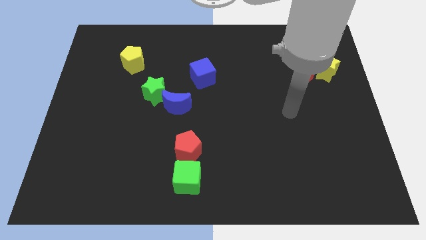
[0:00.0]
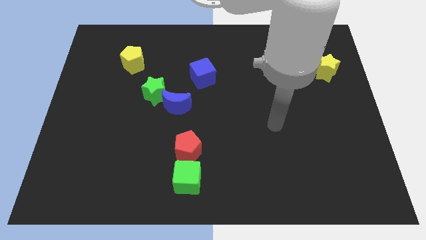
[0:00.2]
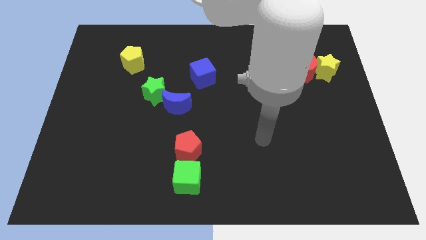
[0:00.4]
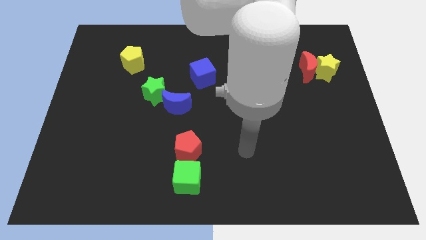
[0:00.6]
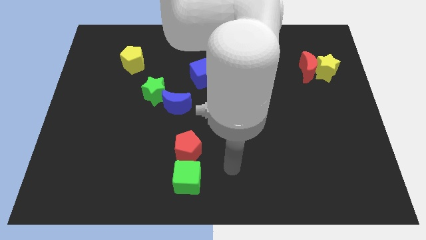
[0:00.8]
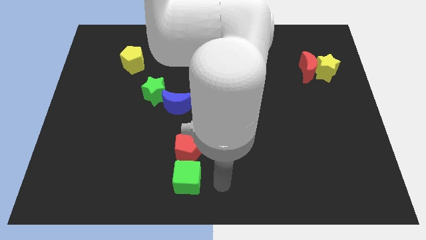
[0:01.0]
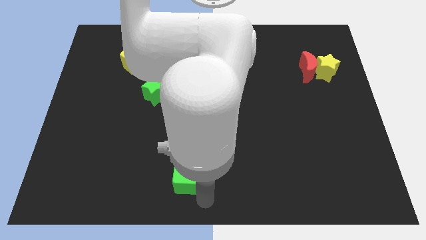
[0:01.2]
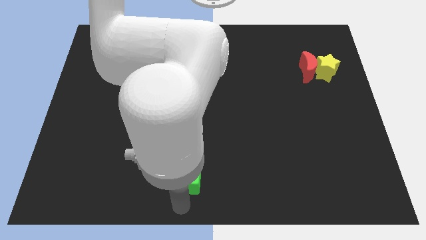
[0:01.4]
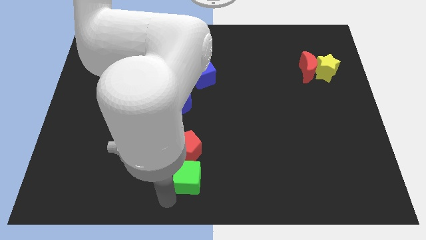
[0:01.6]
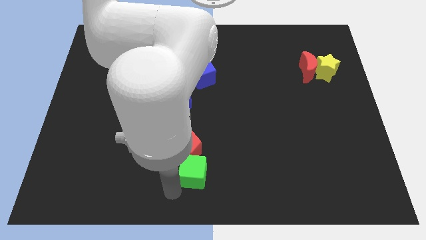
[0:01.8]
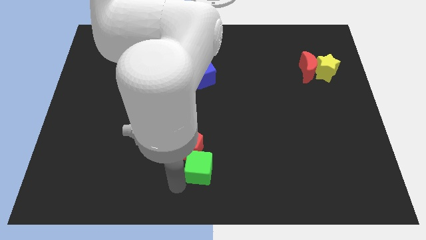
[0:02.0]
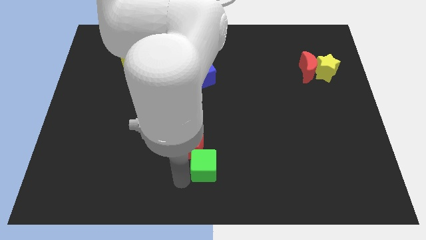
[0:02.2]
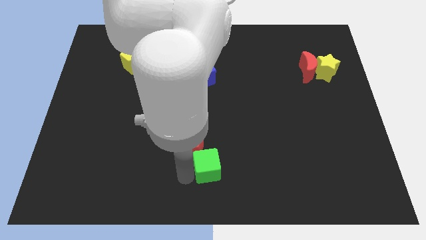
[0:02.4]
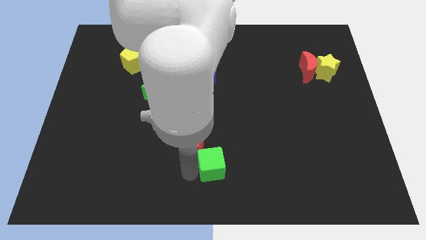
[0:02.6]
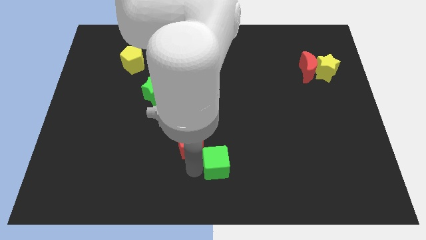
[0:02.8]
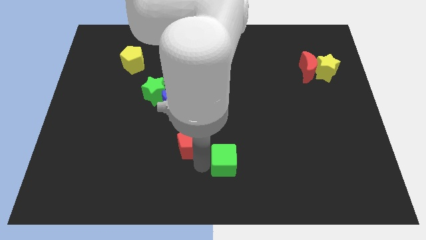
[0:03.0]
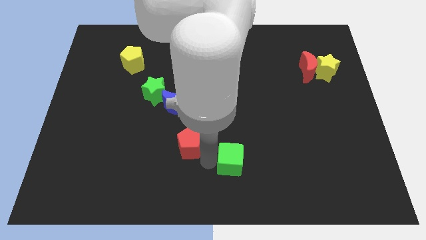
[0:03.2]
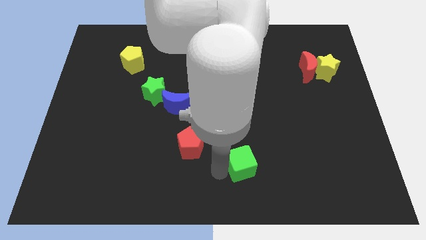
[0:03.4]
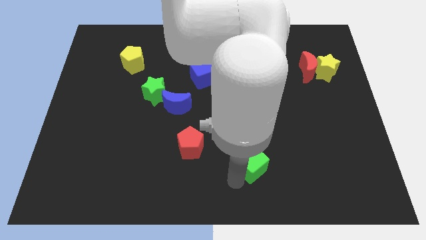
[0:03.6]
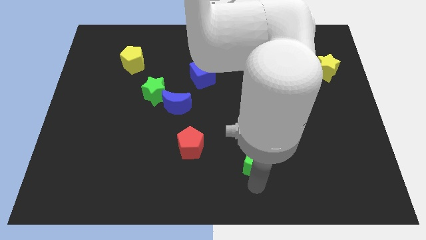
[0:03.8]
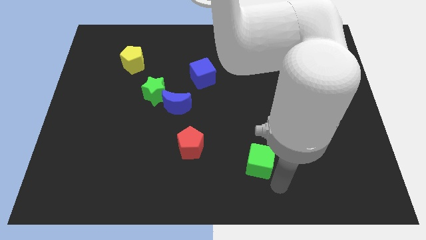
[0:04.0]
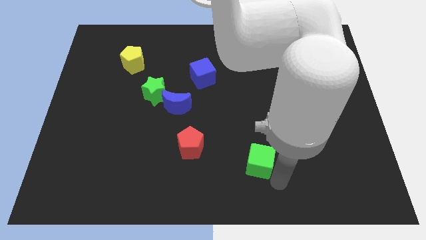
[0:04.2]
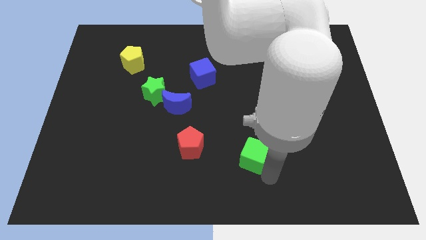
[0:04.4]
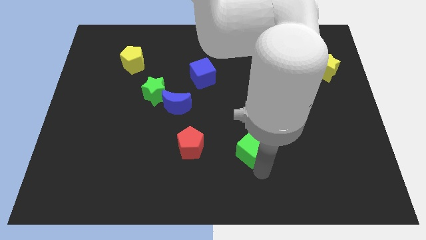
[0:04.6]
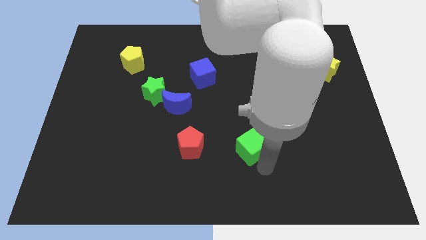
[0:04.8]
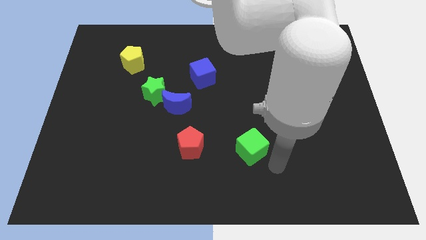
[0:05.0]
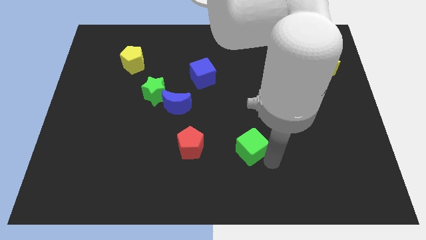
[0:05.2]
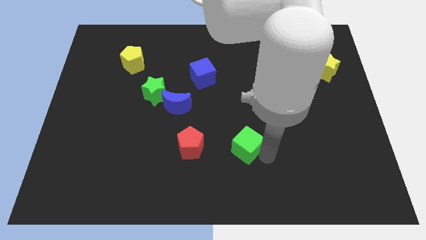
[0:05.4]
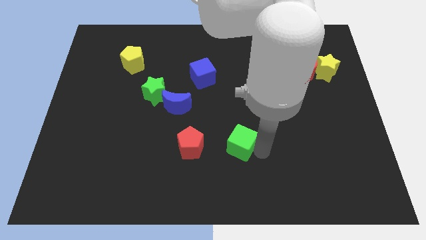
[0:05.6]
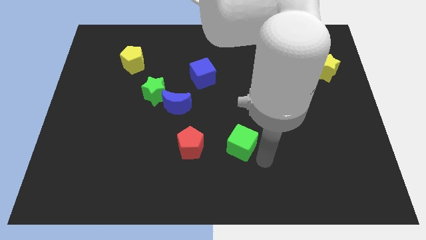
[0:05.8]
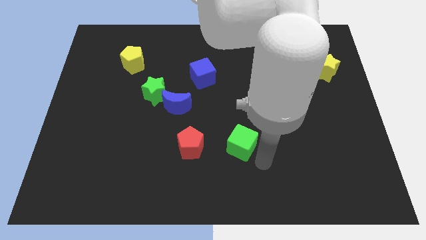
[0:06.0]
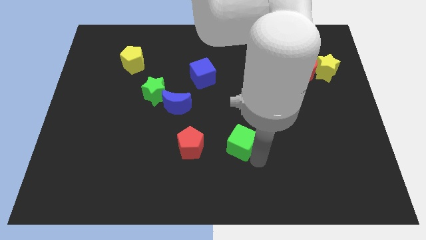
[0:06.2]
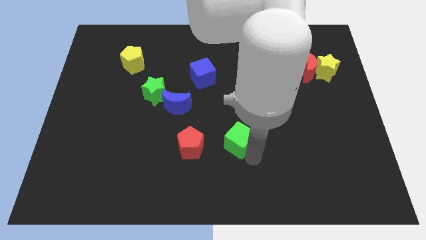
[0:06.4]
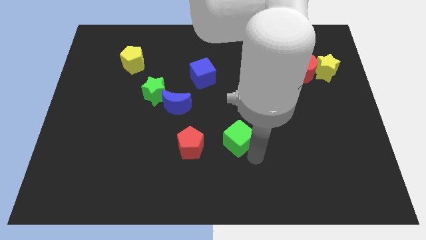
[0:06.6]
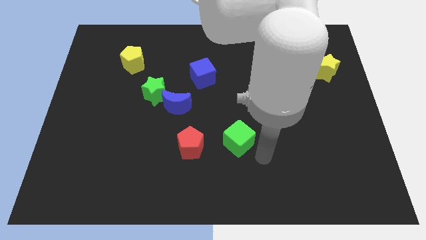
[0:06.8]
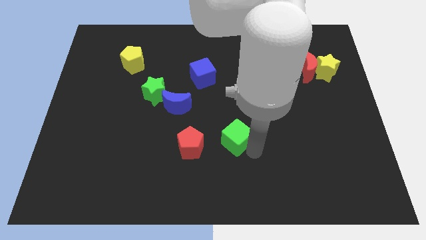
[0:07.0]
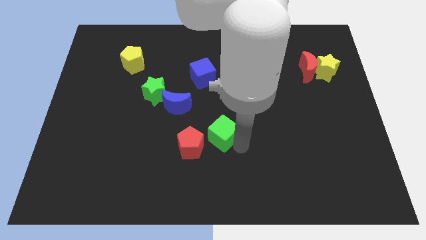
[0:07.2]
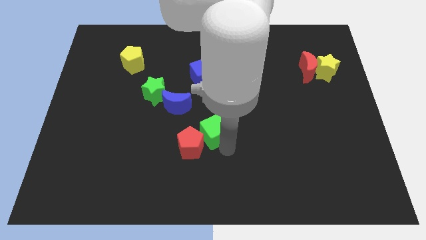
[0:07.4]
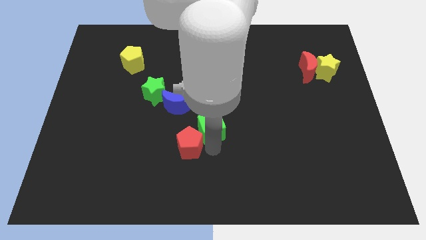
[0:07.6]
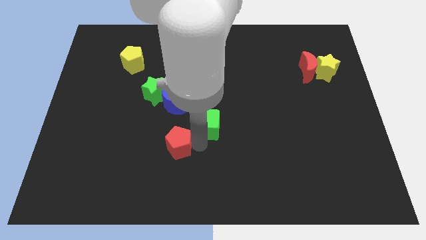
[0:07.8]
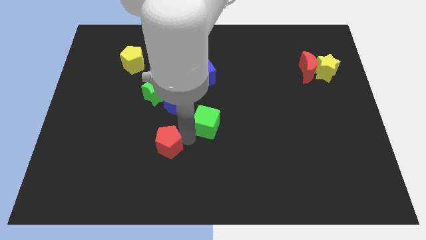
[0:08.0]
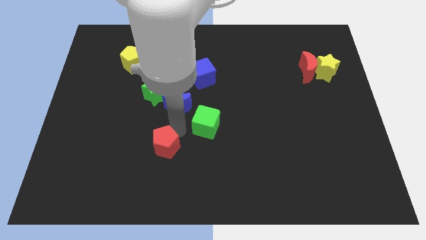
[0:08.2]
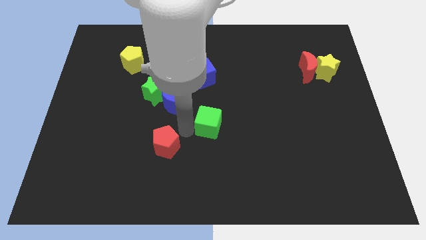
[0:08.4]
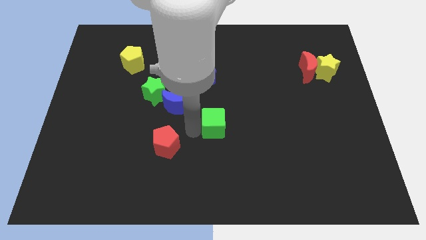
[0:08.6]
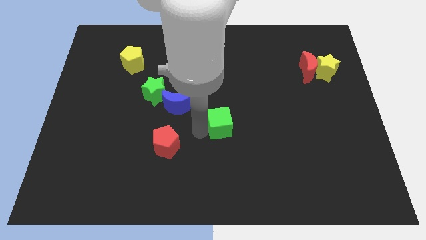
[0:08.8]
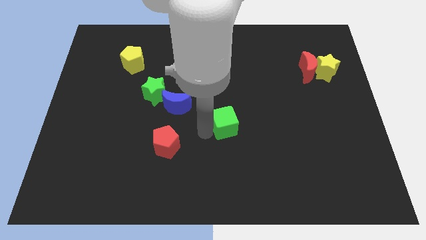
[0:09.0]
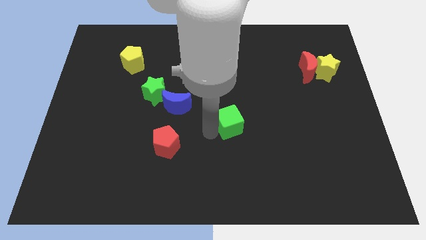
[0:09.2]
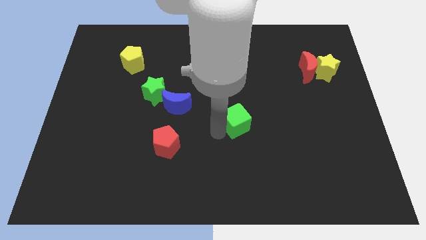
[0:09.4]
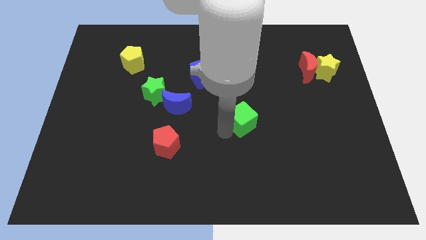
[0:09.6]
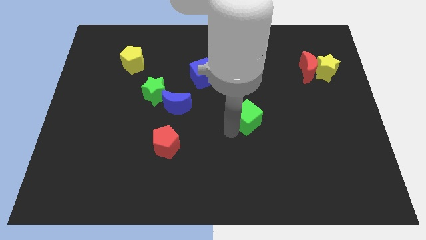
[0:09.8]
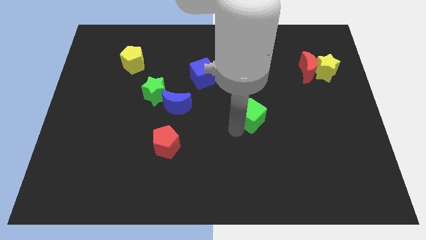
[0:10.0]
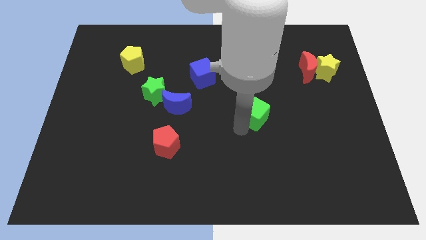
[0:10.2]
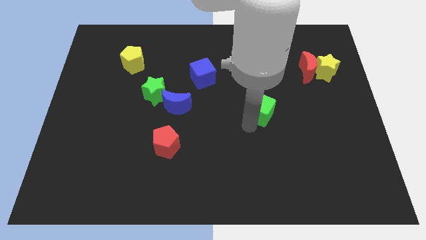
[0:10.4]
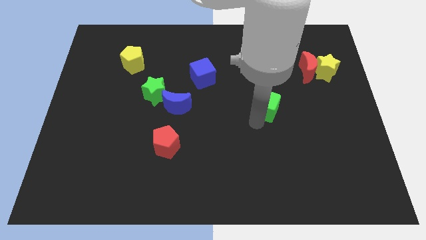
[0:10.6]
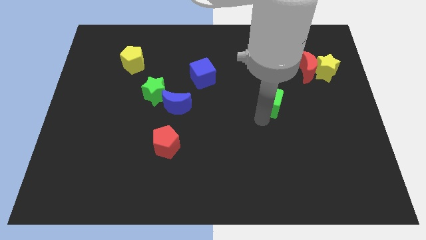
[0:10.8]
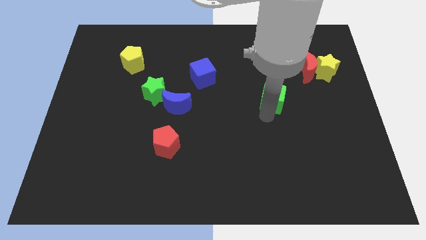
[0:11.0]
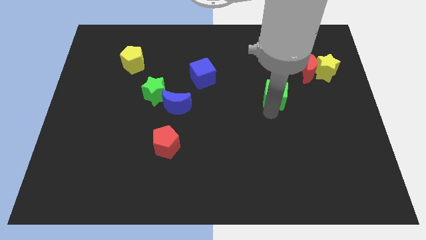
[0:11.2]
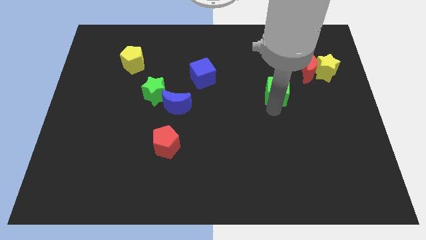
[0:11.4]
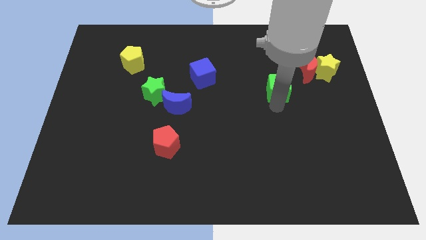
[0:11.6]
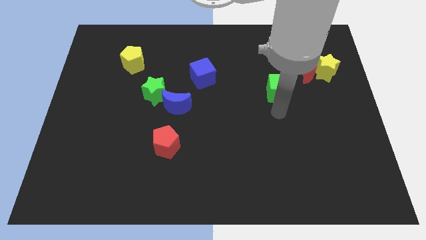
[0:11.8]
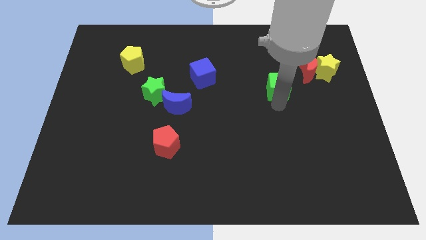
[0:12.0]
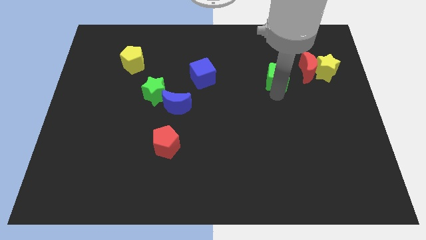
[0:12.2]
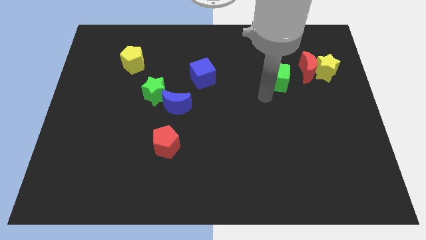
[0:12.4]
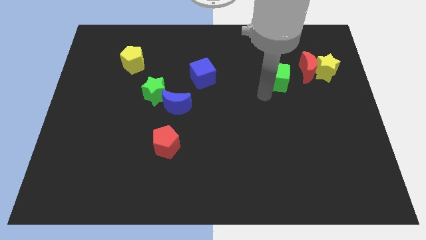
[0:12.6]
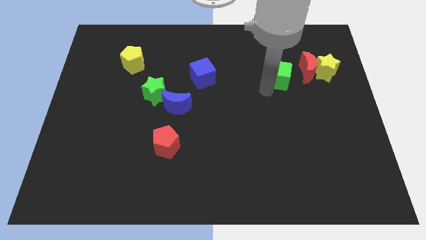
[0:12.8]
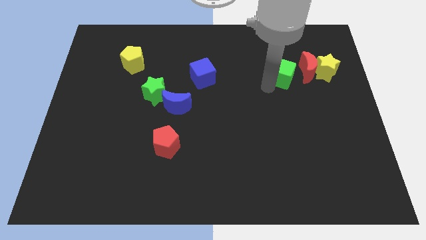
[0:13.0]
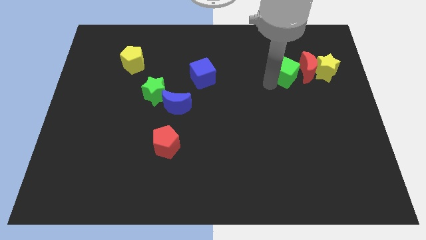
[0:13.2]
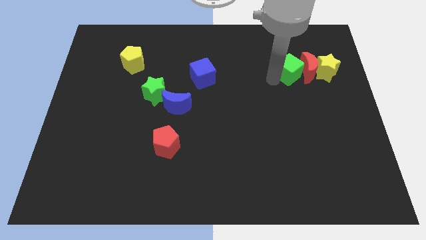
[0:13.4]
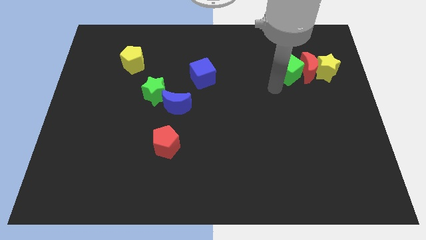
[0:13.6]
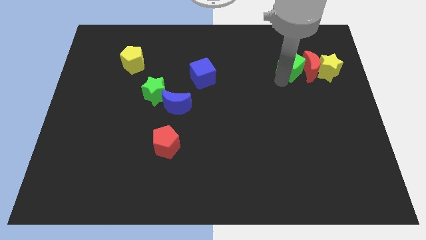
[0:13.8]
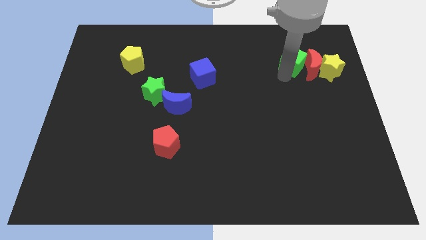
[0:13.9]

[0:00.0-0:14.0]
slide the green cube diagonally up and to the left of the yellow star
